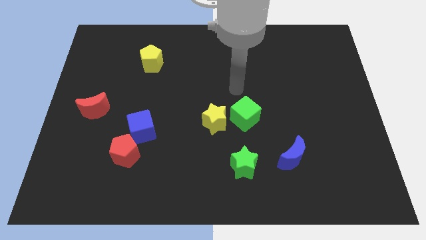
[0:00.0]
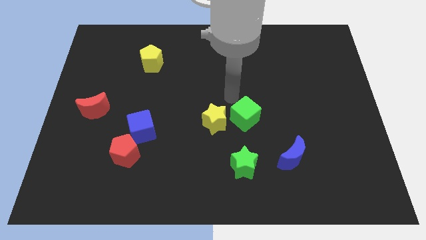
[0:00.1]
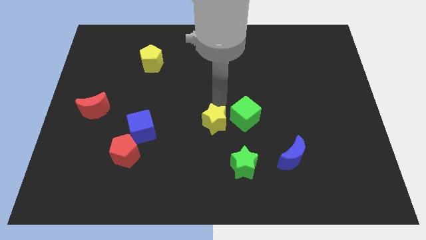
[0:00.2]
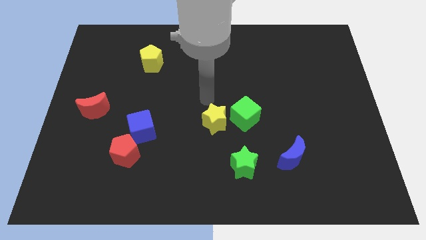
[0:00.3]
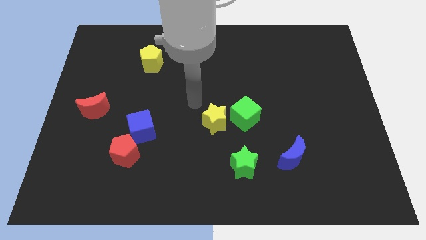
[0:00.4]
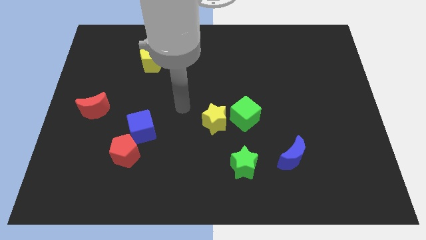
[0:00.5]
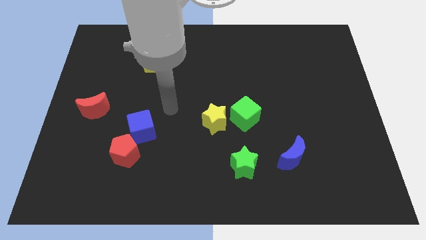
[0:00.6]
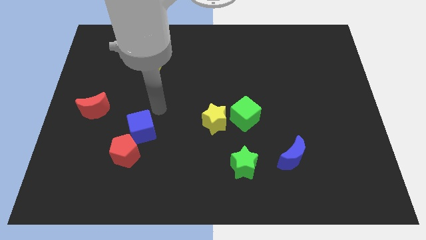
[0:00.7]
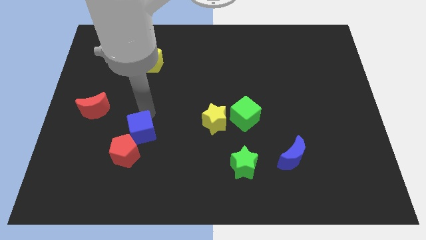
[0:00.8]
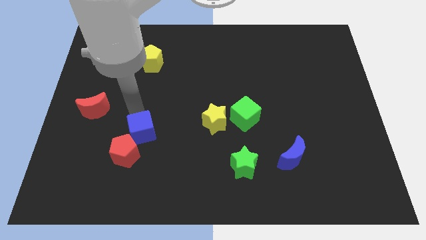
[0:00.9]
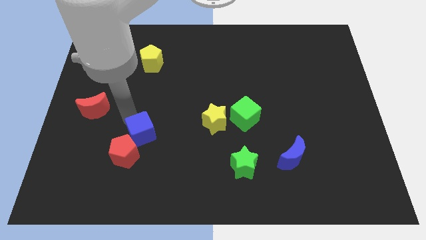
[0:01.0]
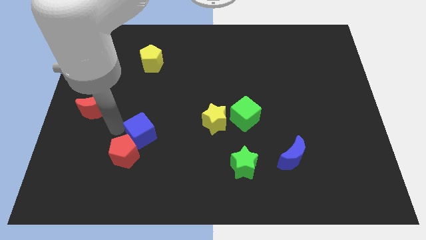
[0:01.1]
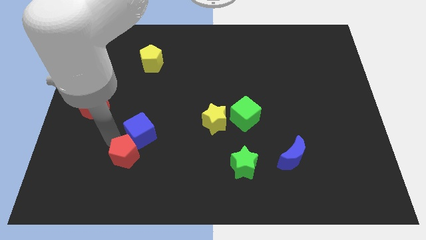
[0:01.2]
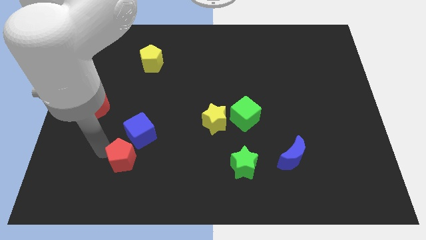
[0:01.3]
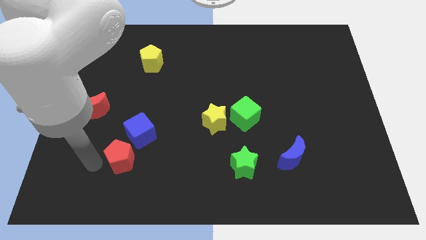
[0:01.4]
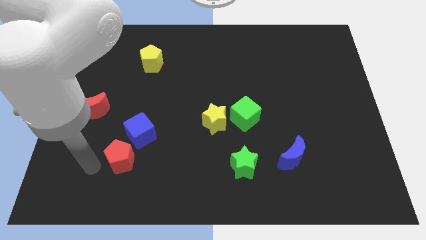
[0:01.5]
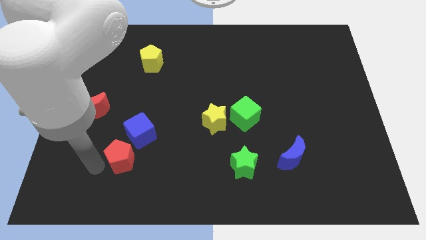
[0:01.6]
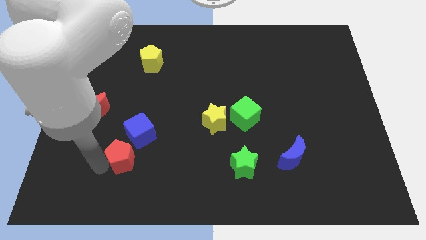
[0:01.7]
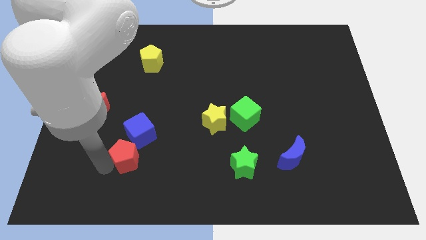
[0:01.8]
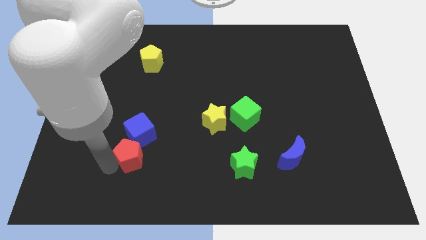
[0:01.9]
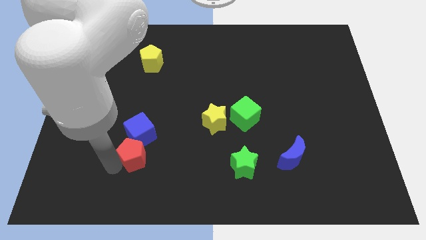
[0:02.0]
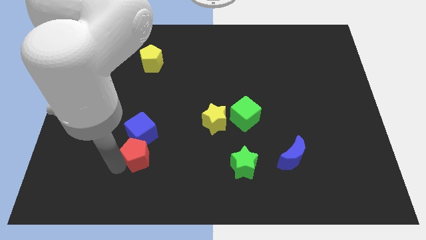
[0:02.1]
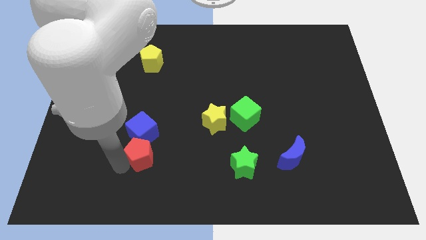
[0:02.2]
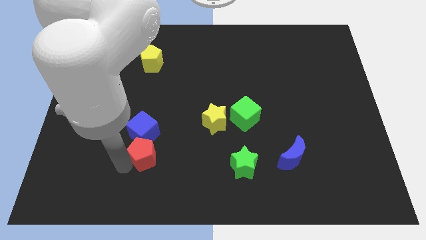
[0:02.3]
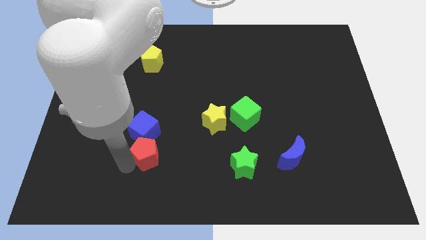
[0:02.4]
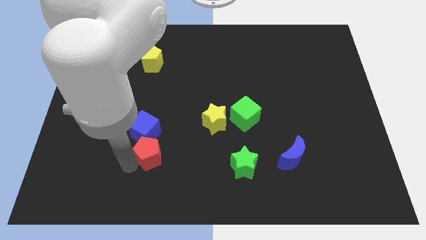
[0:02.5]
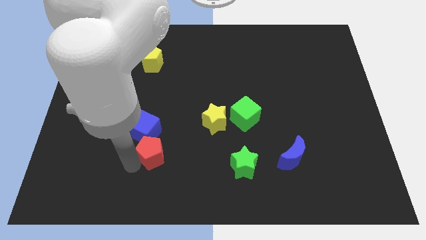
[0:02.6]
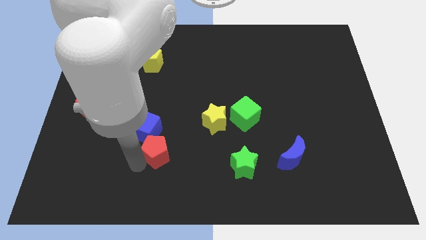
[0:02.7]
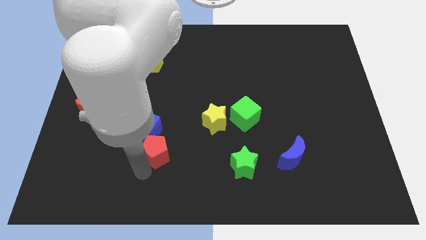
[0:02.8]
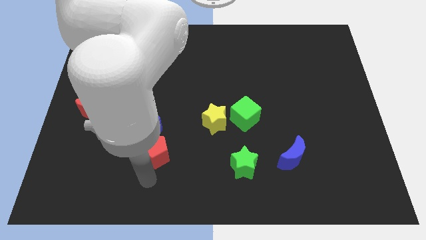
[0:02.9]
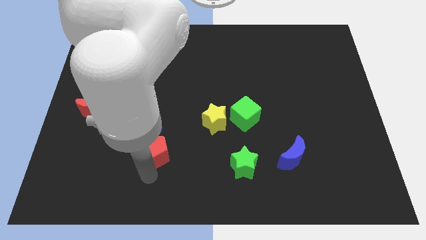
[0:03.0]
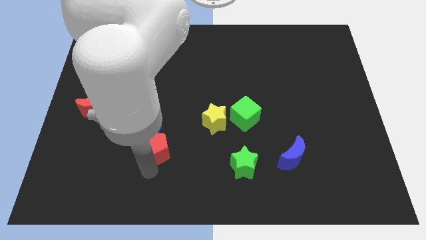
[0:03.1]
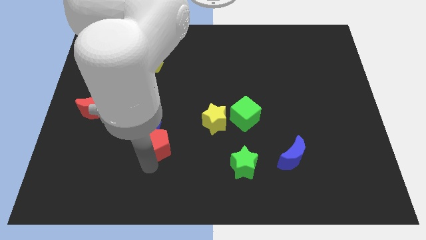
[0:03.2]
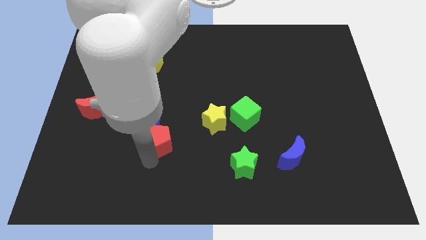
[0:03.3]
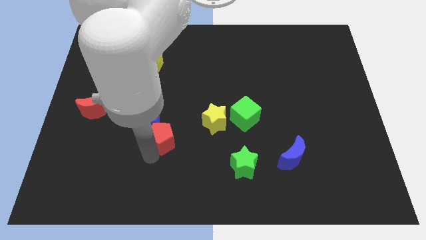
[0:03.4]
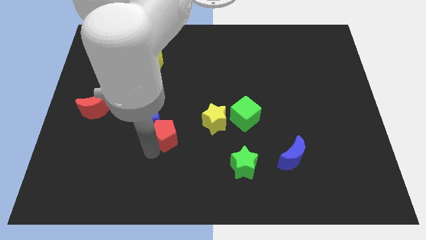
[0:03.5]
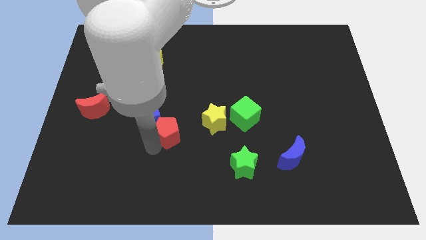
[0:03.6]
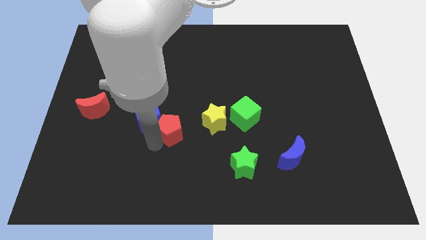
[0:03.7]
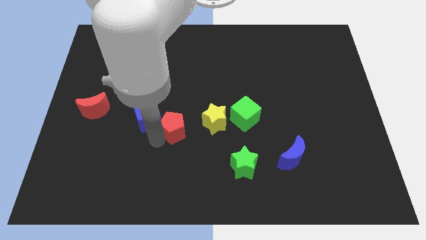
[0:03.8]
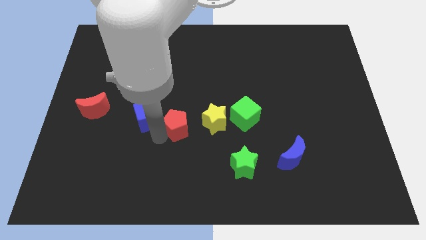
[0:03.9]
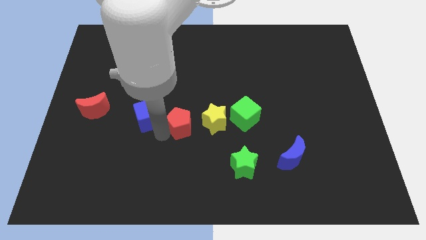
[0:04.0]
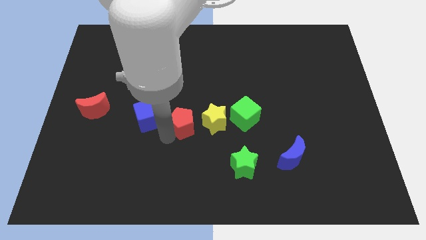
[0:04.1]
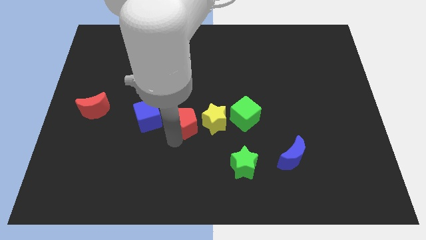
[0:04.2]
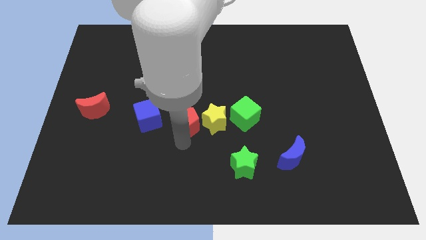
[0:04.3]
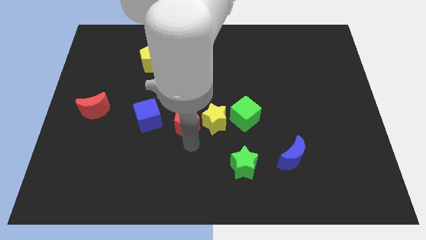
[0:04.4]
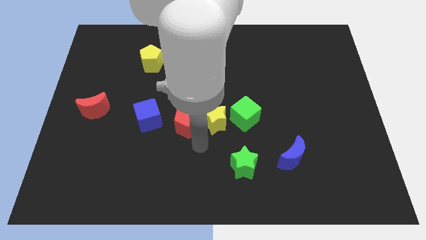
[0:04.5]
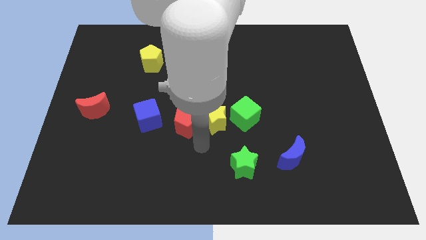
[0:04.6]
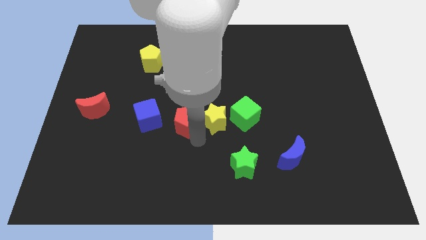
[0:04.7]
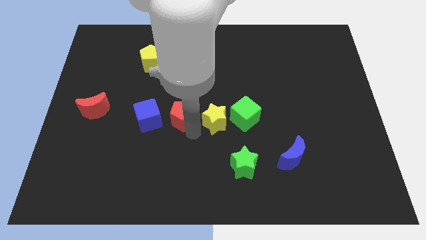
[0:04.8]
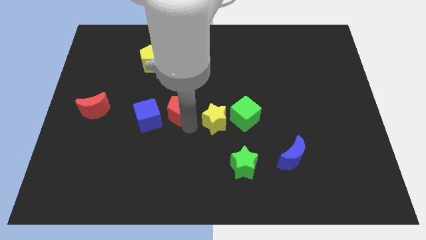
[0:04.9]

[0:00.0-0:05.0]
move the red pentagon to the top right of the blue cube

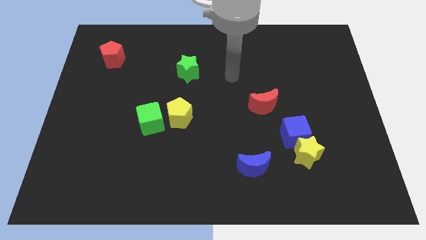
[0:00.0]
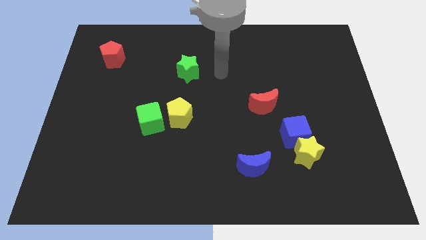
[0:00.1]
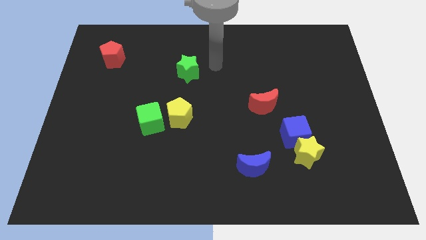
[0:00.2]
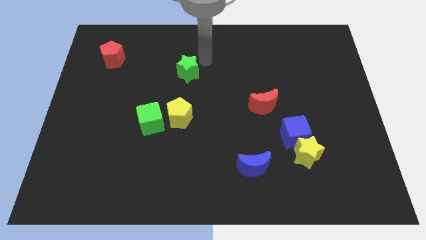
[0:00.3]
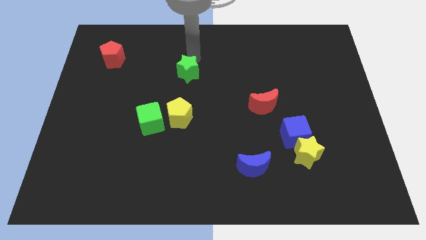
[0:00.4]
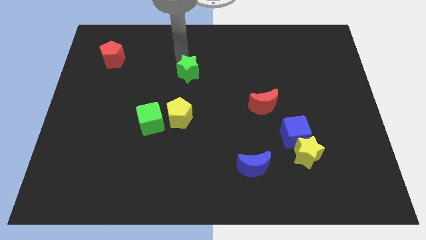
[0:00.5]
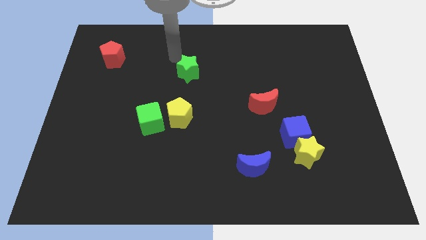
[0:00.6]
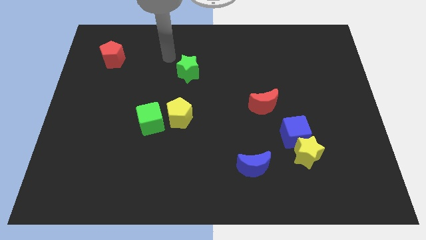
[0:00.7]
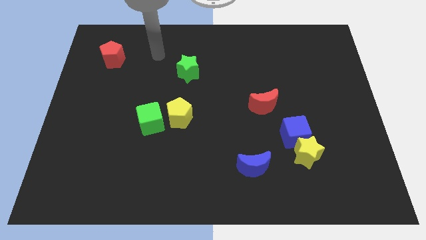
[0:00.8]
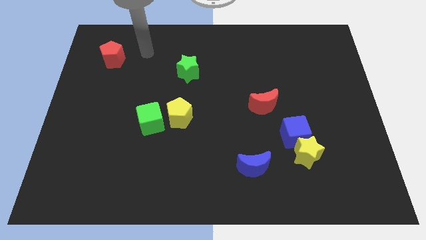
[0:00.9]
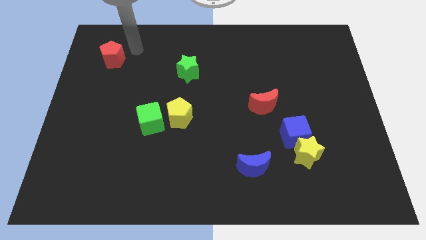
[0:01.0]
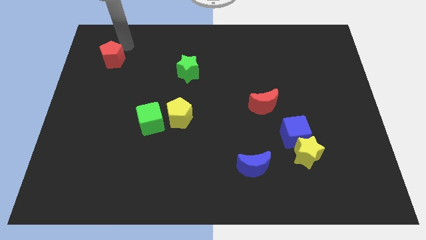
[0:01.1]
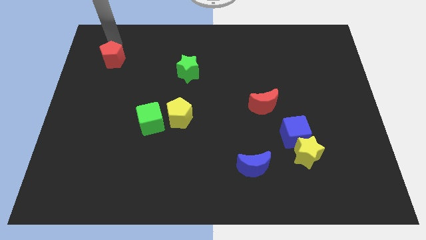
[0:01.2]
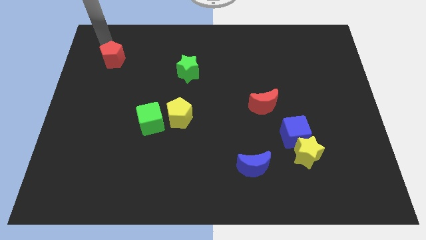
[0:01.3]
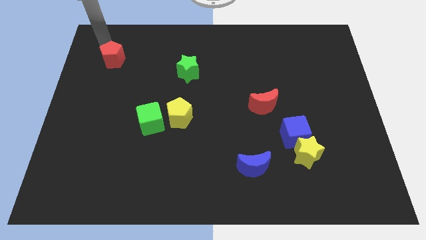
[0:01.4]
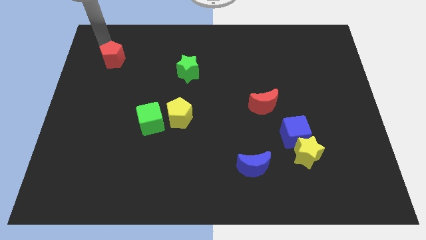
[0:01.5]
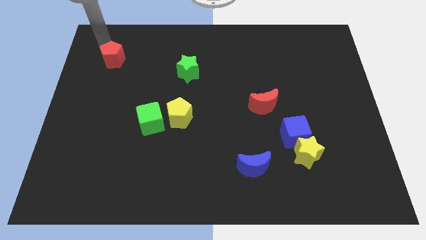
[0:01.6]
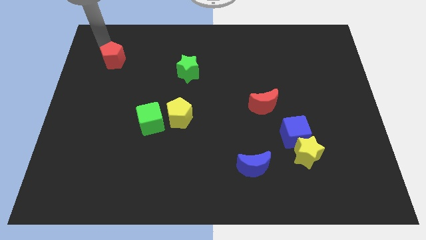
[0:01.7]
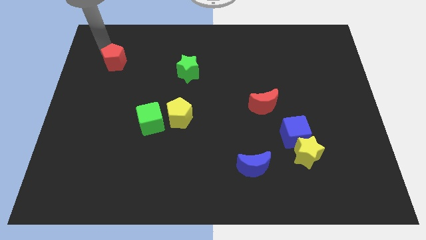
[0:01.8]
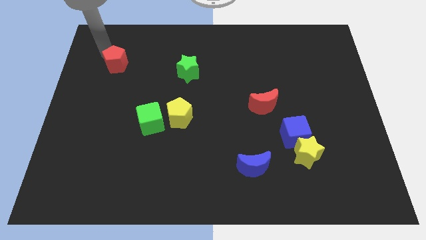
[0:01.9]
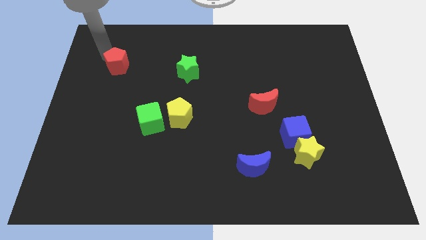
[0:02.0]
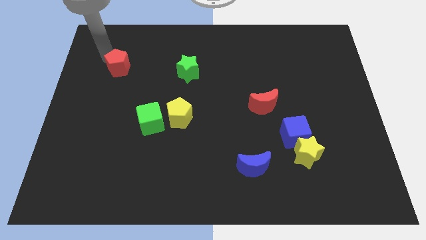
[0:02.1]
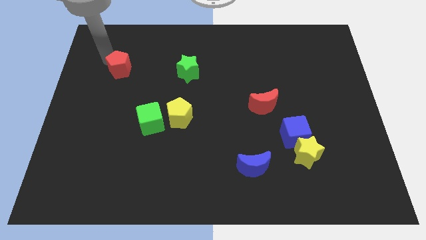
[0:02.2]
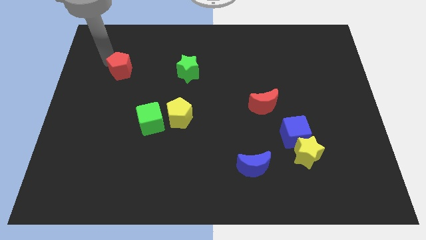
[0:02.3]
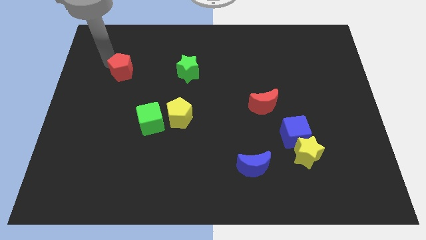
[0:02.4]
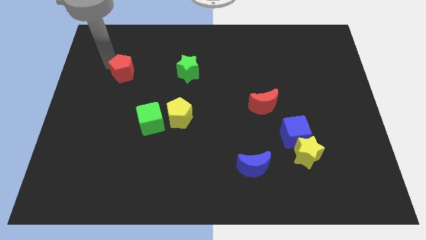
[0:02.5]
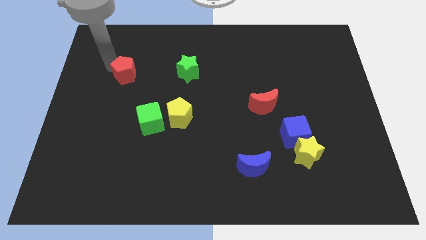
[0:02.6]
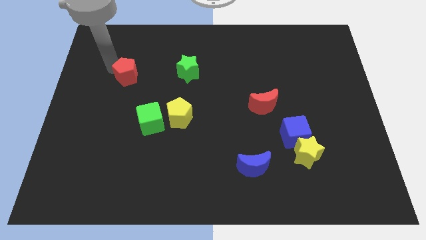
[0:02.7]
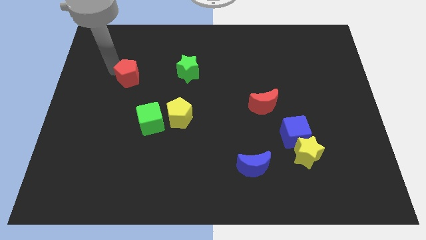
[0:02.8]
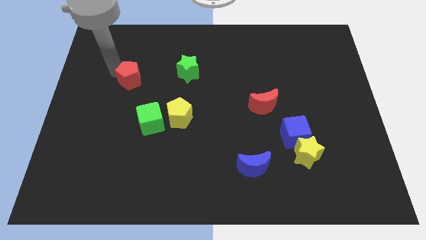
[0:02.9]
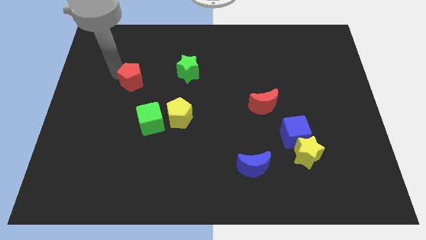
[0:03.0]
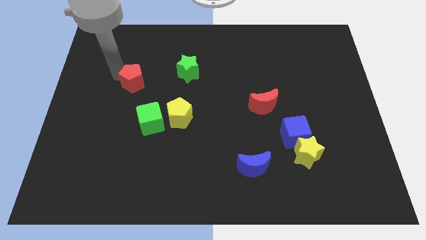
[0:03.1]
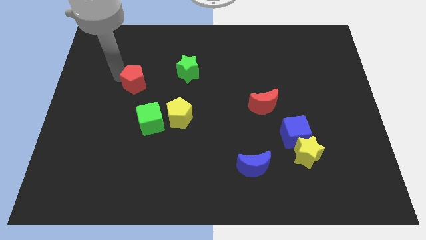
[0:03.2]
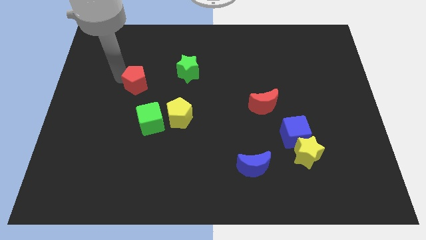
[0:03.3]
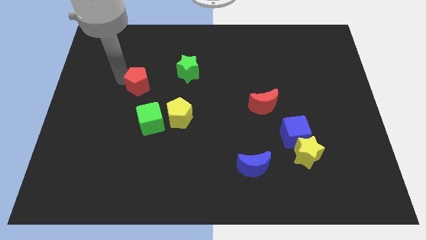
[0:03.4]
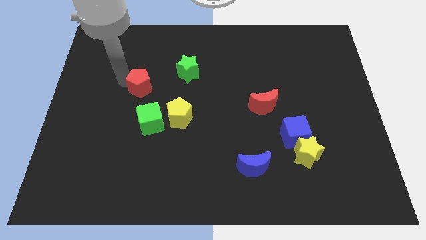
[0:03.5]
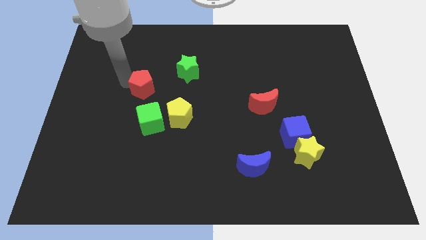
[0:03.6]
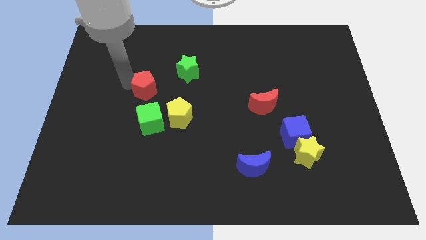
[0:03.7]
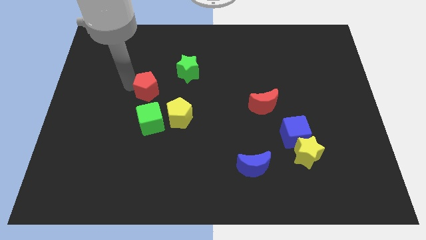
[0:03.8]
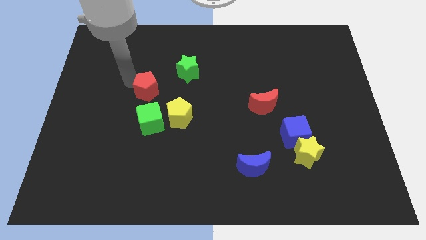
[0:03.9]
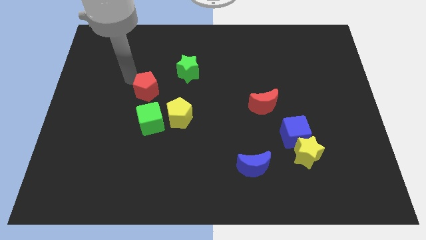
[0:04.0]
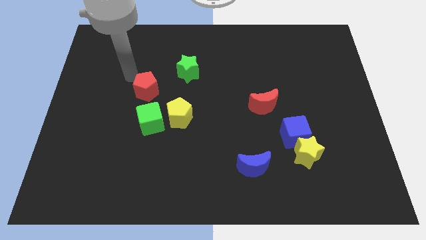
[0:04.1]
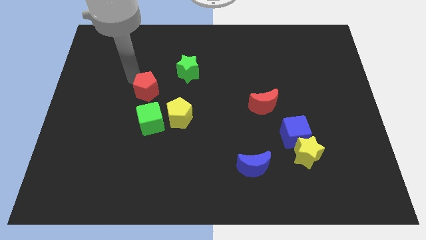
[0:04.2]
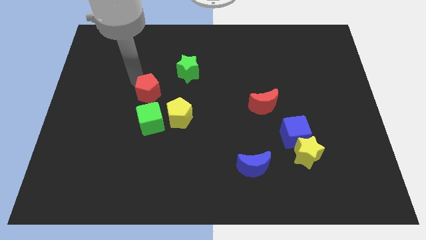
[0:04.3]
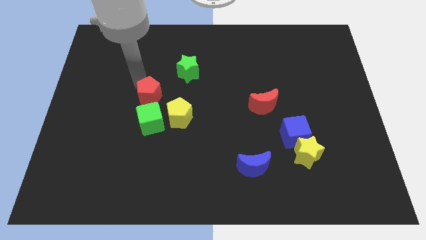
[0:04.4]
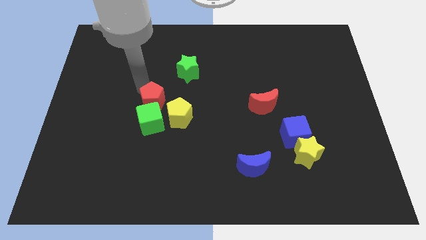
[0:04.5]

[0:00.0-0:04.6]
slide the red pentagon to the top right of the green cube
